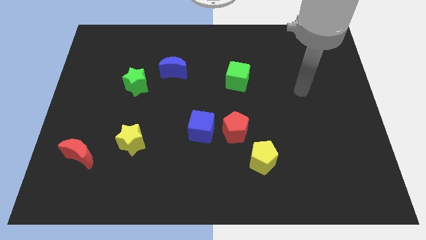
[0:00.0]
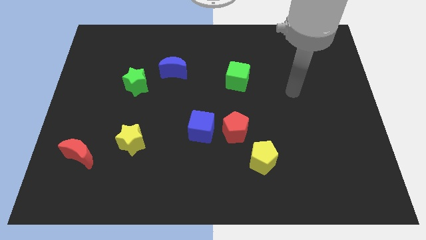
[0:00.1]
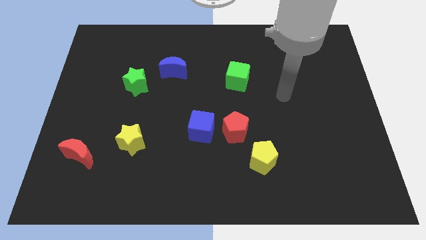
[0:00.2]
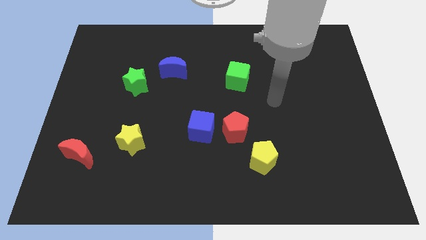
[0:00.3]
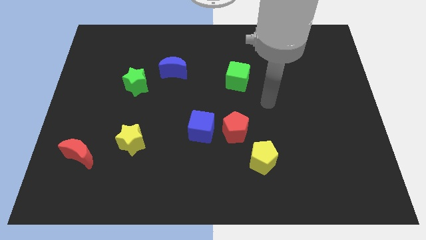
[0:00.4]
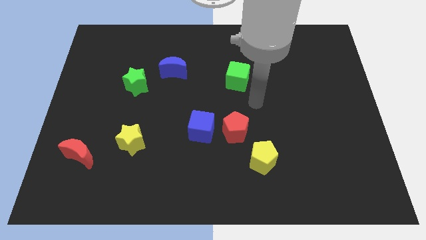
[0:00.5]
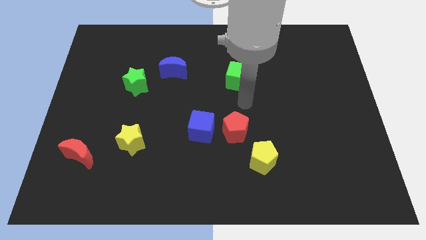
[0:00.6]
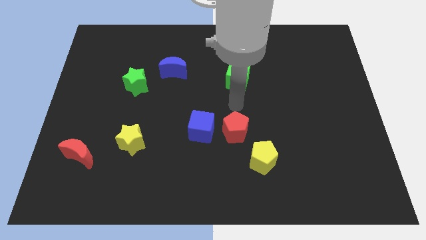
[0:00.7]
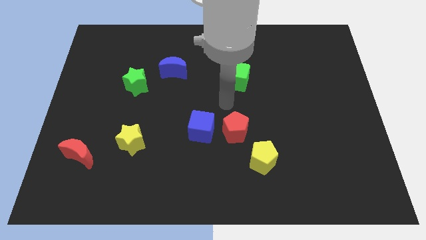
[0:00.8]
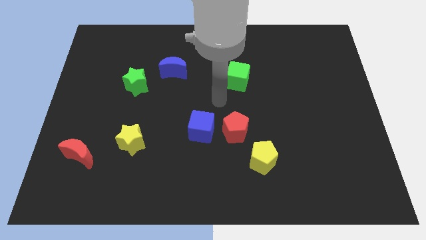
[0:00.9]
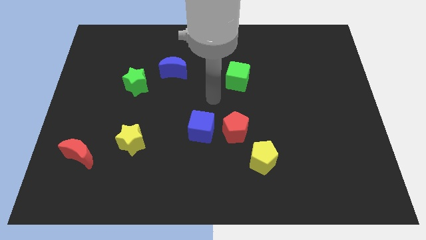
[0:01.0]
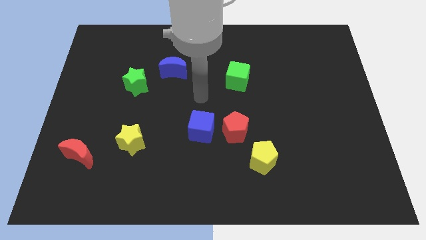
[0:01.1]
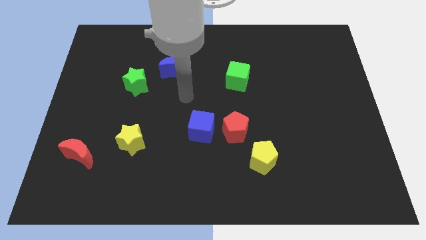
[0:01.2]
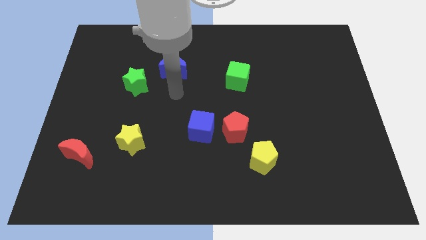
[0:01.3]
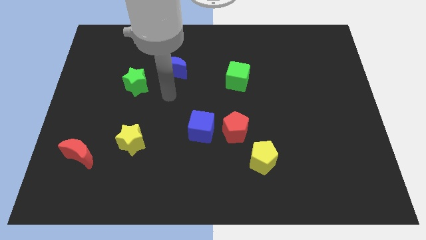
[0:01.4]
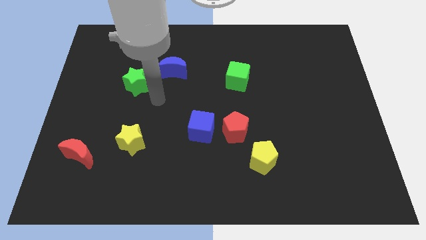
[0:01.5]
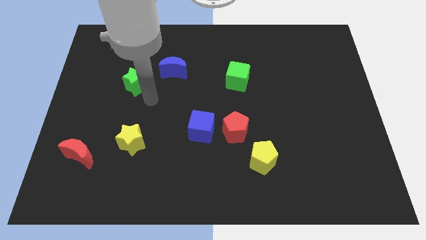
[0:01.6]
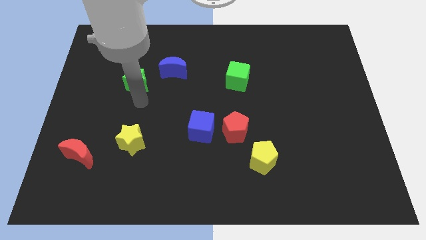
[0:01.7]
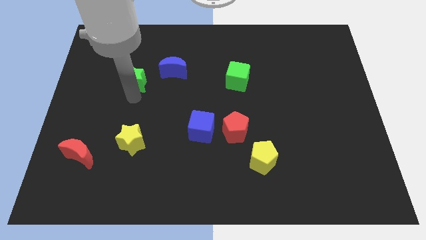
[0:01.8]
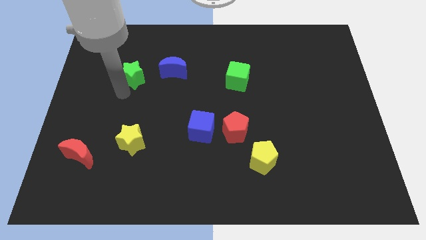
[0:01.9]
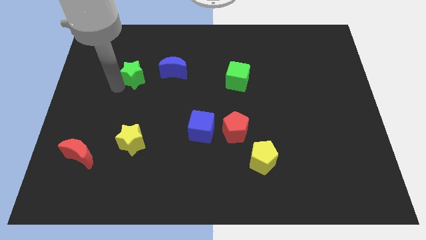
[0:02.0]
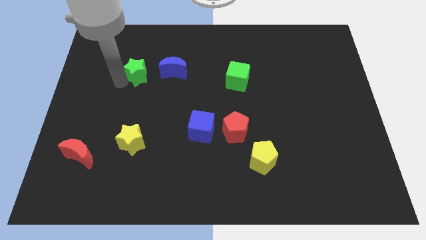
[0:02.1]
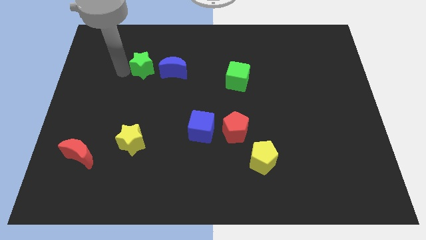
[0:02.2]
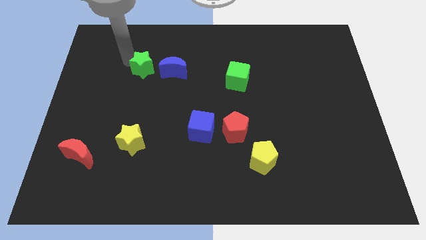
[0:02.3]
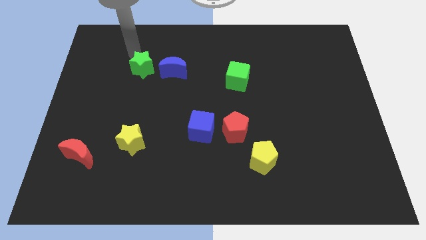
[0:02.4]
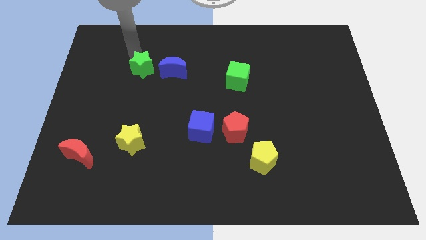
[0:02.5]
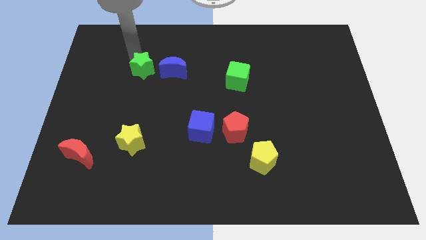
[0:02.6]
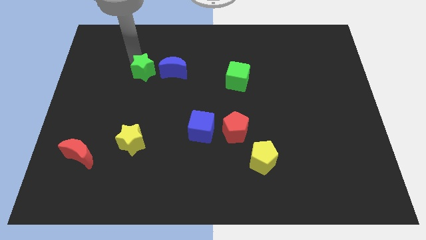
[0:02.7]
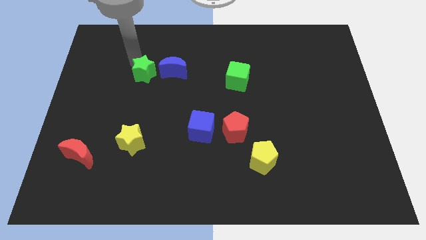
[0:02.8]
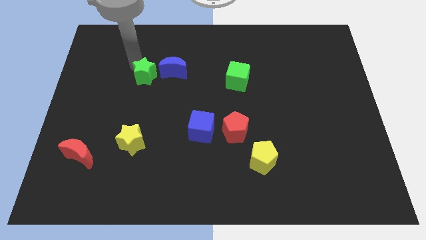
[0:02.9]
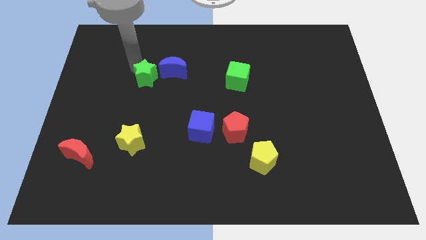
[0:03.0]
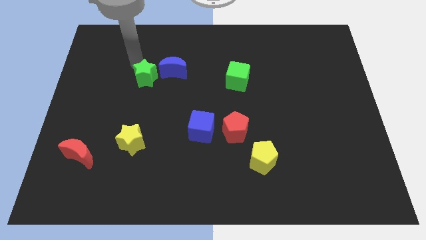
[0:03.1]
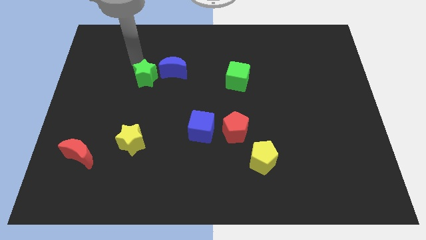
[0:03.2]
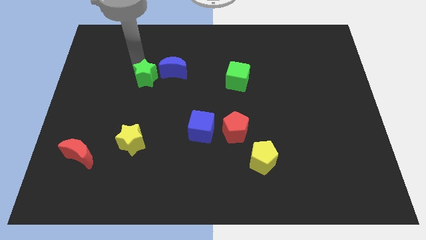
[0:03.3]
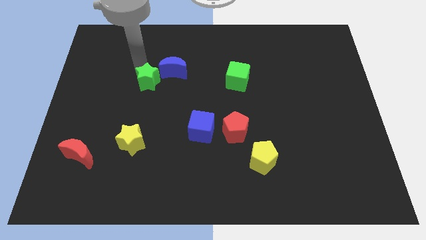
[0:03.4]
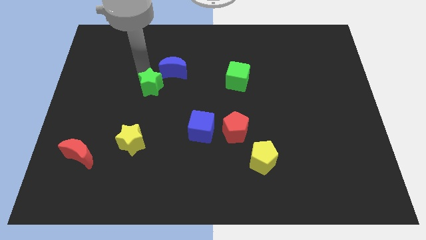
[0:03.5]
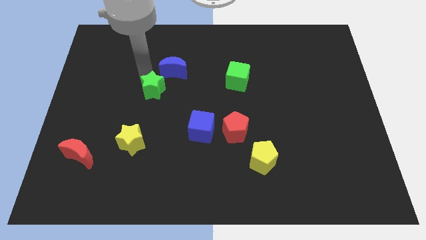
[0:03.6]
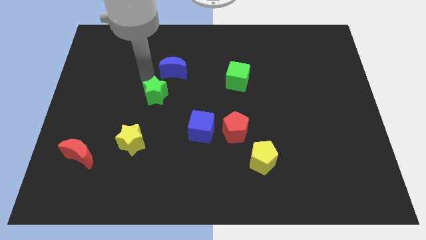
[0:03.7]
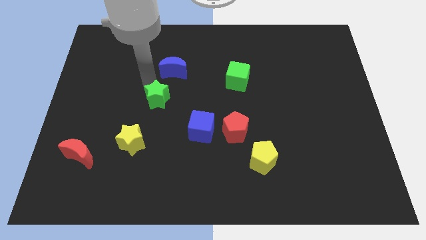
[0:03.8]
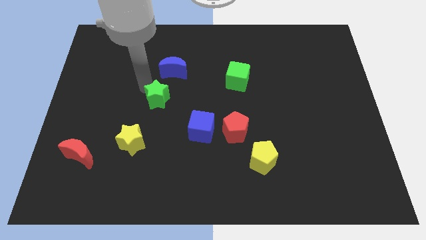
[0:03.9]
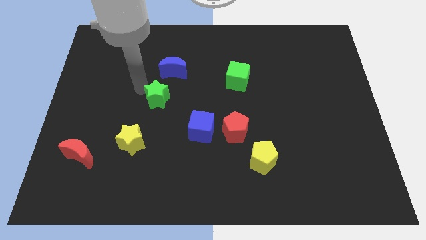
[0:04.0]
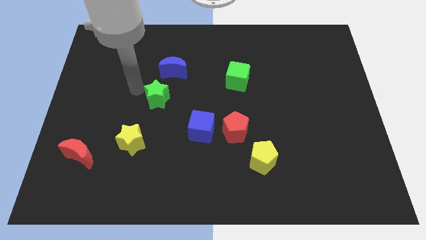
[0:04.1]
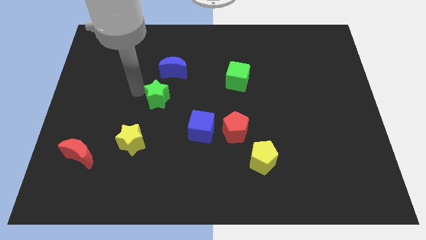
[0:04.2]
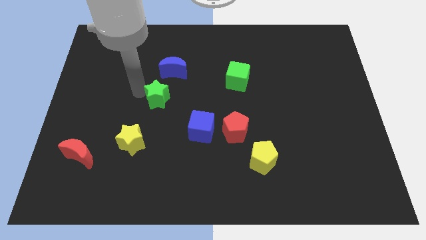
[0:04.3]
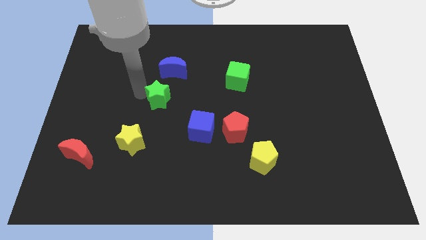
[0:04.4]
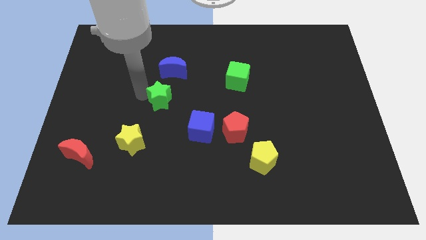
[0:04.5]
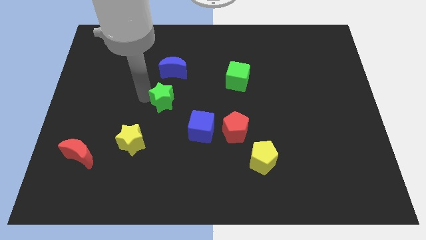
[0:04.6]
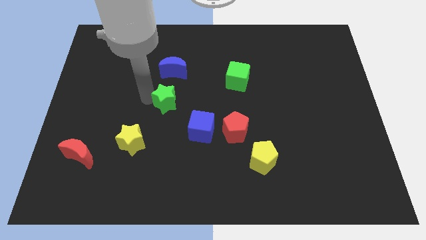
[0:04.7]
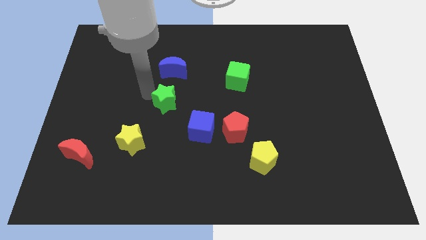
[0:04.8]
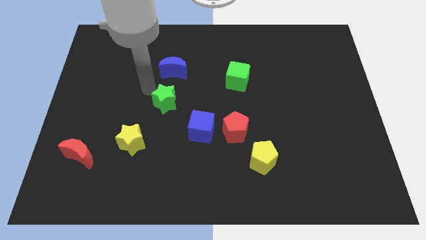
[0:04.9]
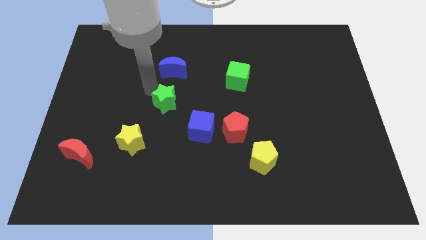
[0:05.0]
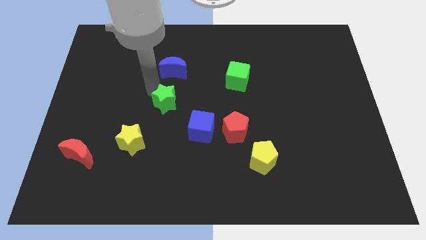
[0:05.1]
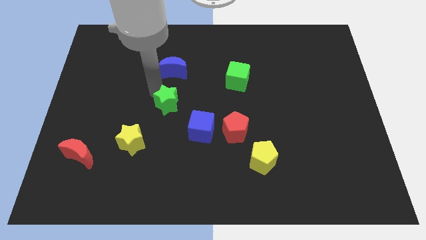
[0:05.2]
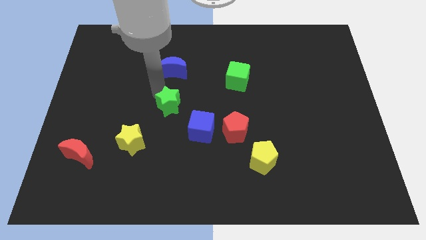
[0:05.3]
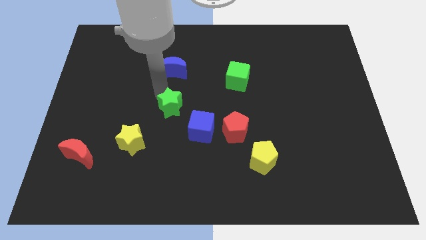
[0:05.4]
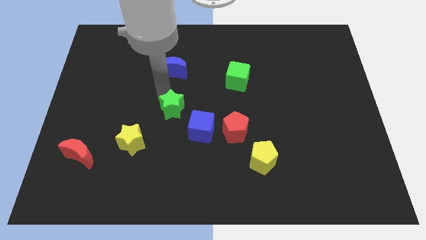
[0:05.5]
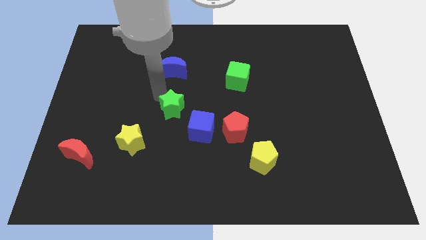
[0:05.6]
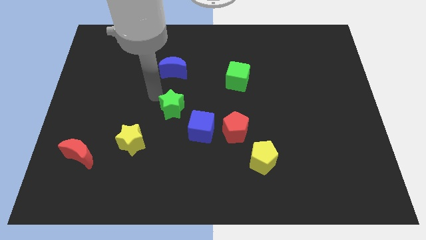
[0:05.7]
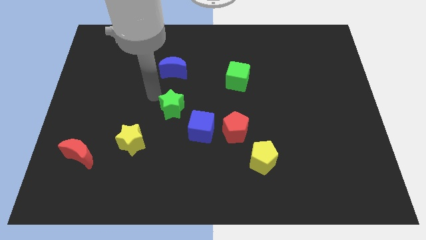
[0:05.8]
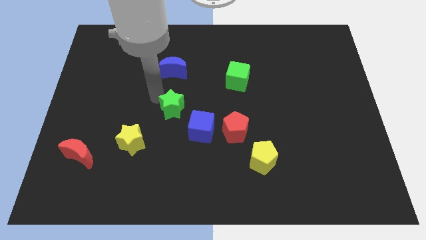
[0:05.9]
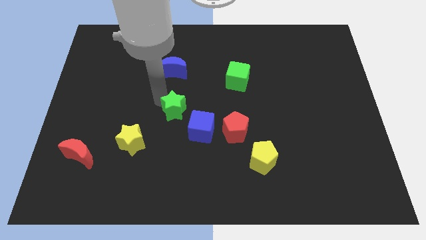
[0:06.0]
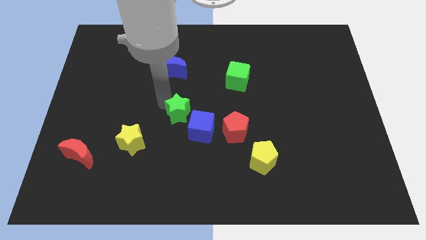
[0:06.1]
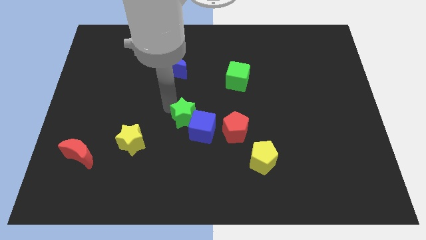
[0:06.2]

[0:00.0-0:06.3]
push the green star close to the blue cube

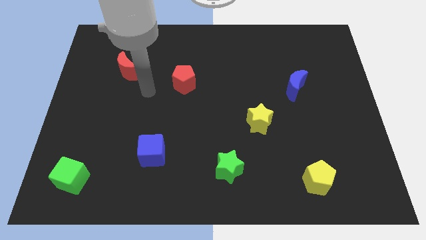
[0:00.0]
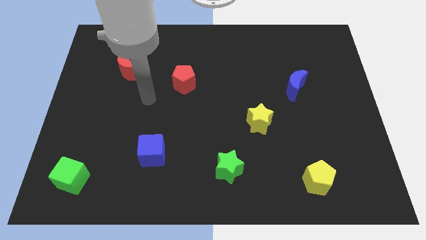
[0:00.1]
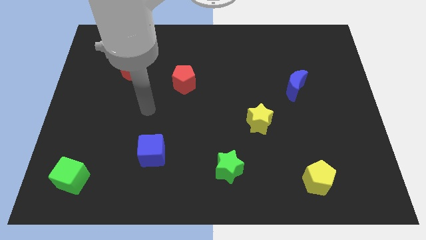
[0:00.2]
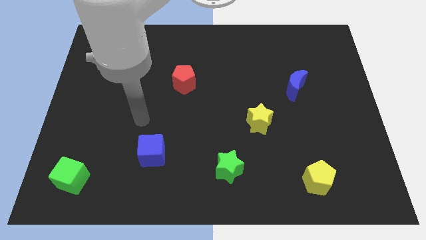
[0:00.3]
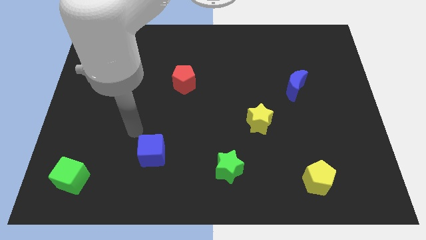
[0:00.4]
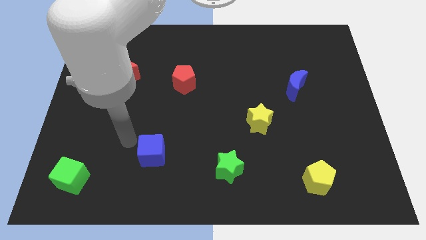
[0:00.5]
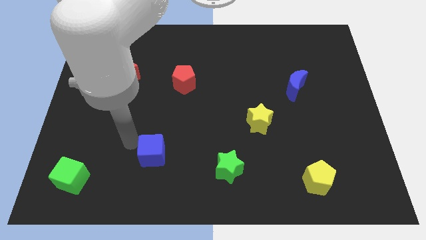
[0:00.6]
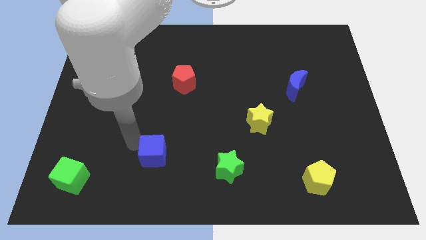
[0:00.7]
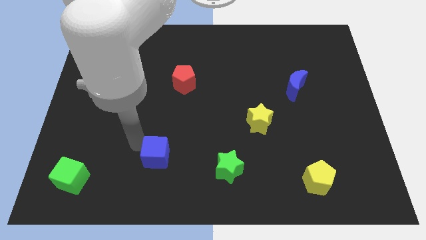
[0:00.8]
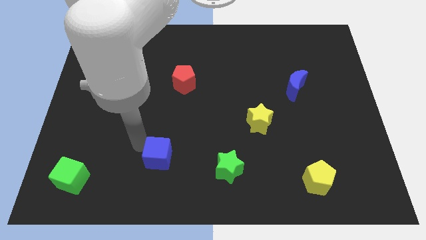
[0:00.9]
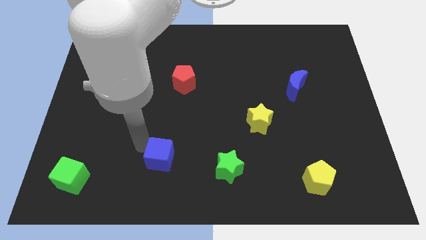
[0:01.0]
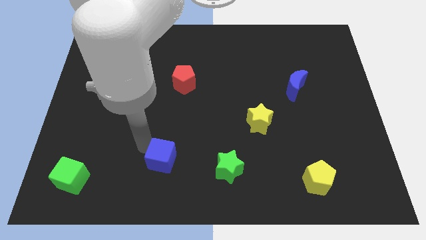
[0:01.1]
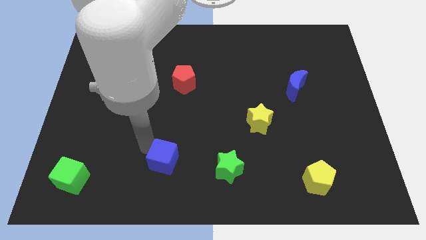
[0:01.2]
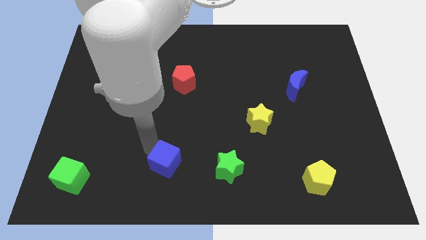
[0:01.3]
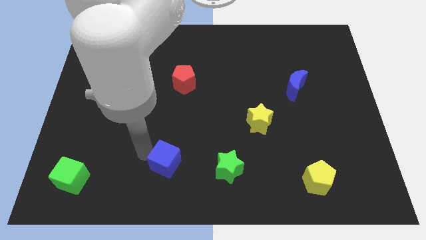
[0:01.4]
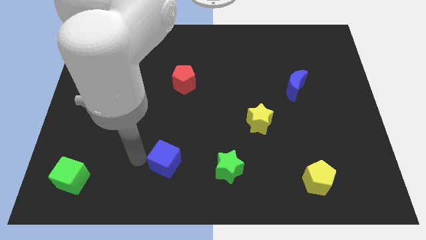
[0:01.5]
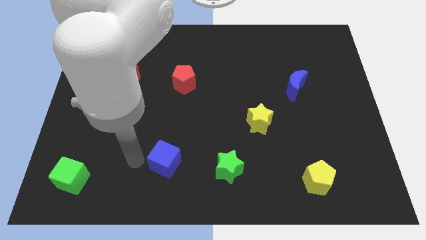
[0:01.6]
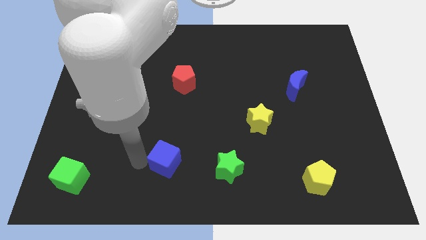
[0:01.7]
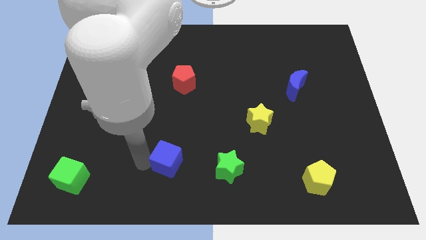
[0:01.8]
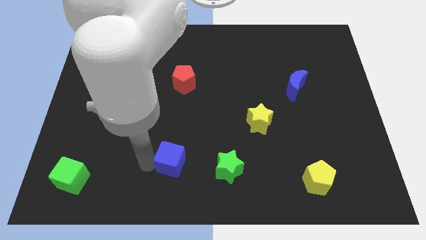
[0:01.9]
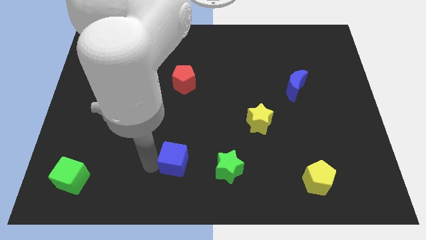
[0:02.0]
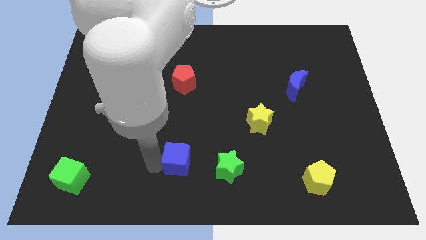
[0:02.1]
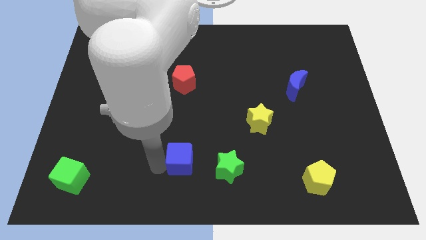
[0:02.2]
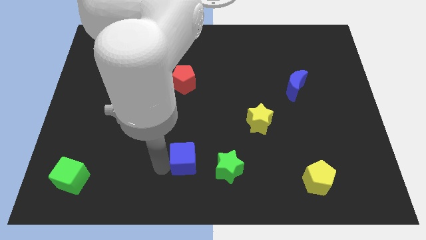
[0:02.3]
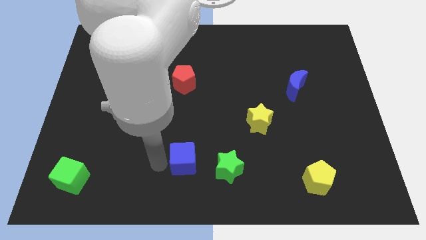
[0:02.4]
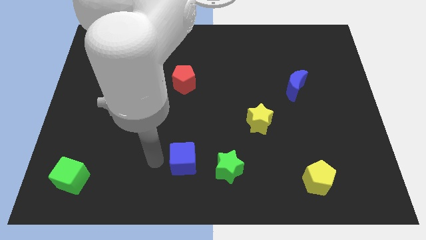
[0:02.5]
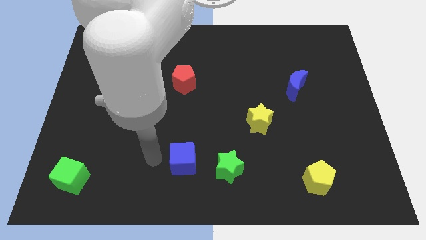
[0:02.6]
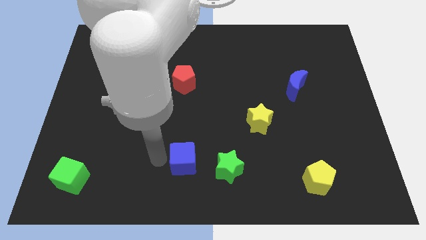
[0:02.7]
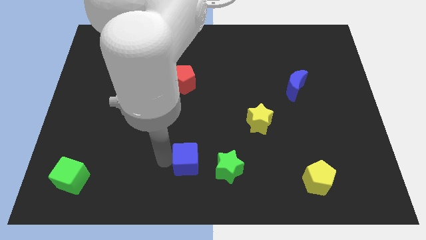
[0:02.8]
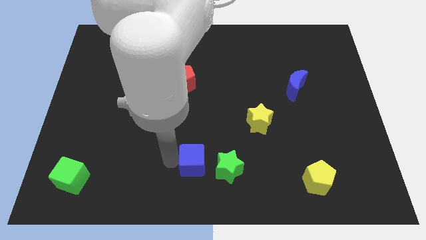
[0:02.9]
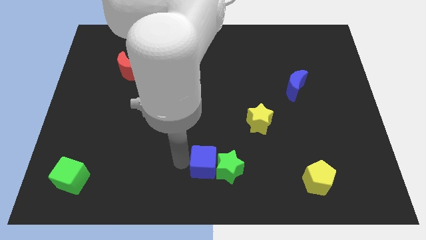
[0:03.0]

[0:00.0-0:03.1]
put the blue cube next to the green star
